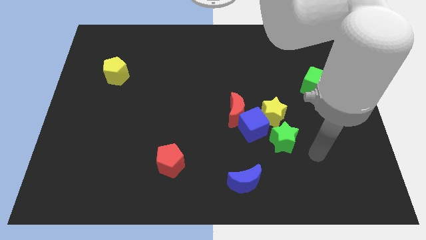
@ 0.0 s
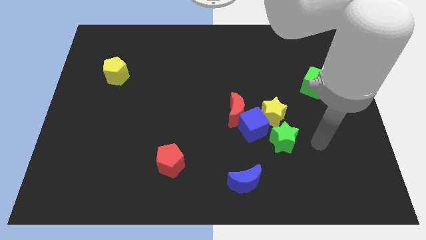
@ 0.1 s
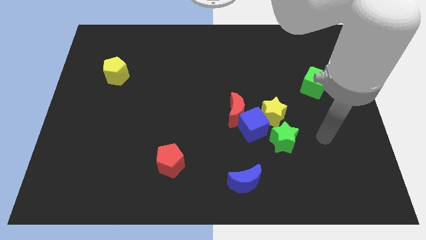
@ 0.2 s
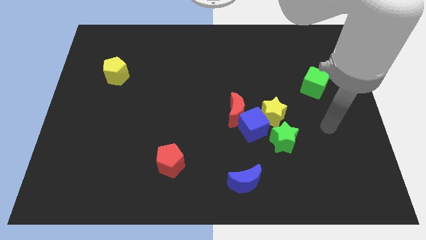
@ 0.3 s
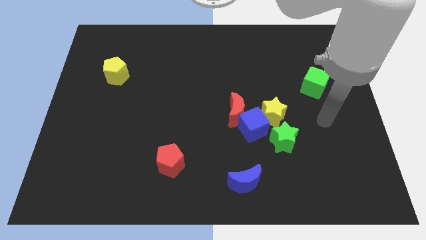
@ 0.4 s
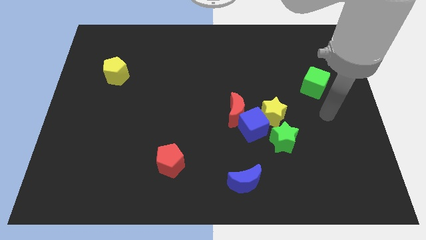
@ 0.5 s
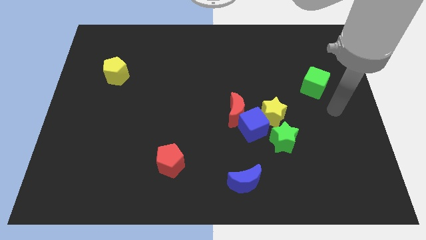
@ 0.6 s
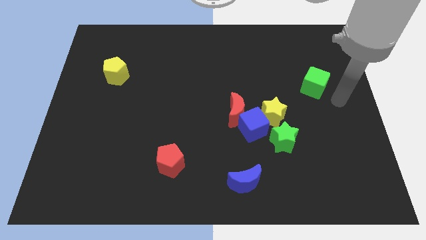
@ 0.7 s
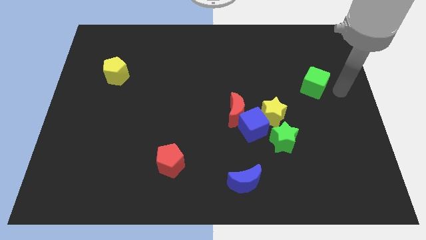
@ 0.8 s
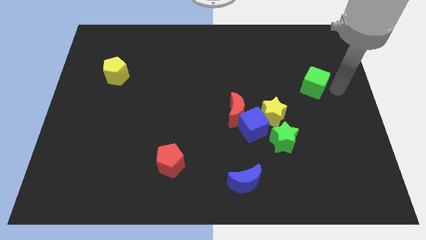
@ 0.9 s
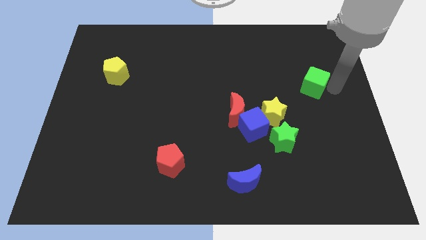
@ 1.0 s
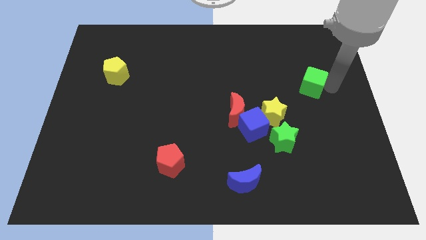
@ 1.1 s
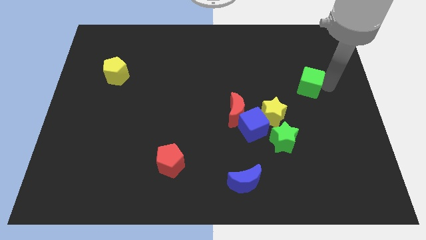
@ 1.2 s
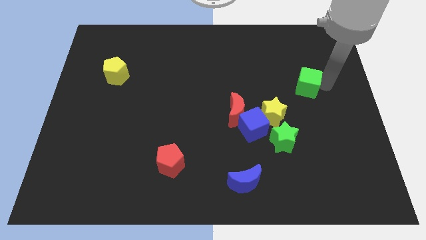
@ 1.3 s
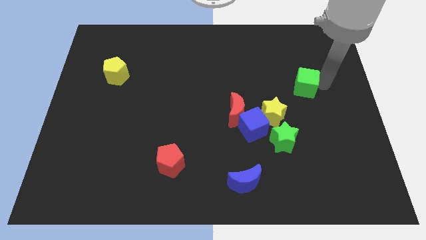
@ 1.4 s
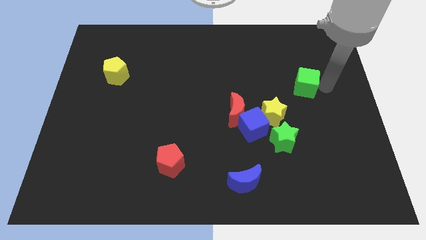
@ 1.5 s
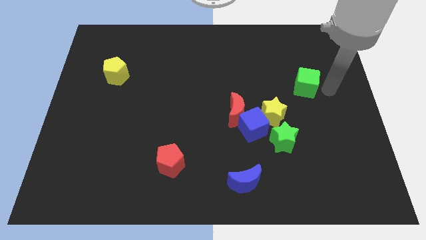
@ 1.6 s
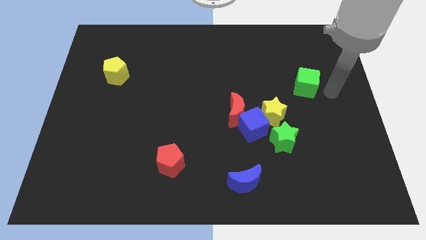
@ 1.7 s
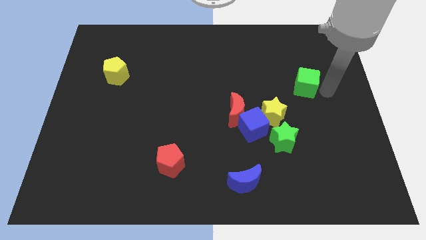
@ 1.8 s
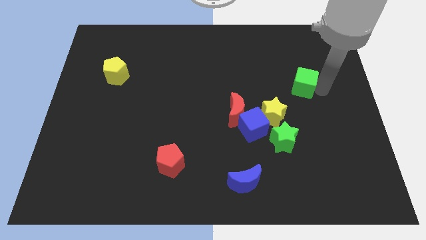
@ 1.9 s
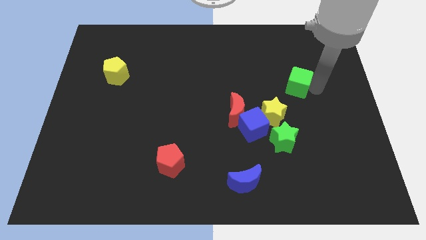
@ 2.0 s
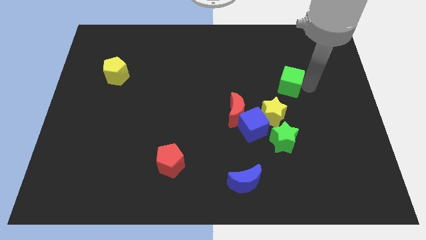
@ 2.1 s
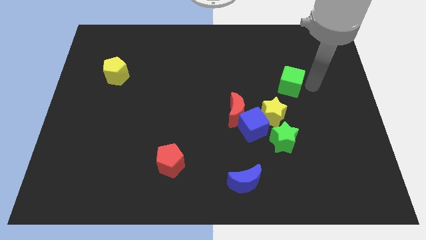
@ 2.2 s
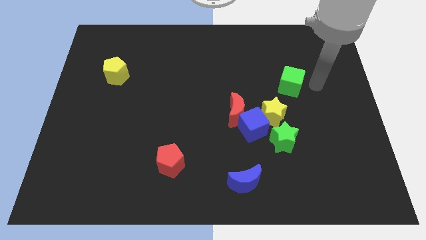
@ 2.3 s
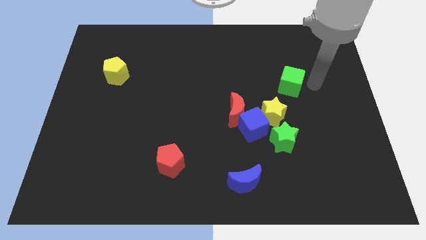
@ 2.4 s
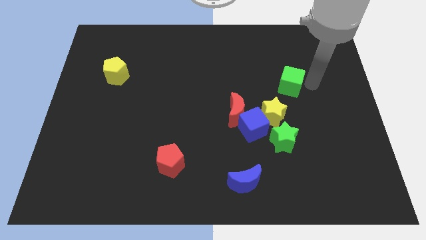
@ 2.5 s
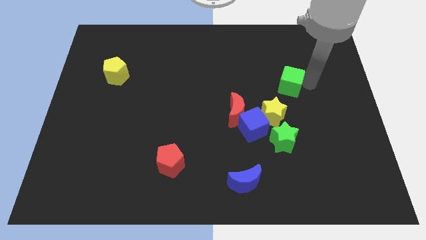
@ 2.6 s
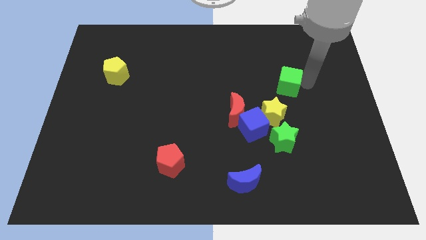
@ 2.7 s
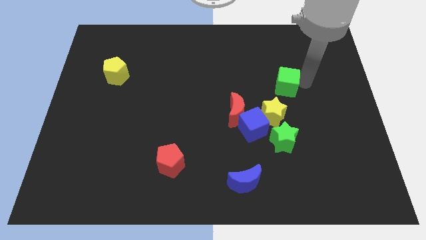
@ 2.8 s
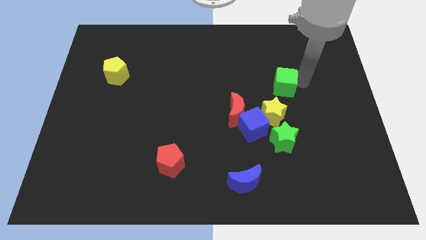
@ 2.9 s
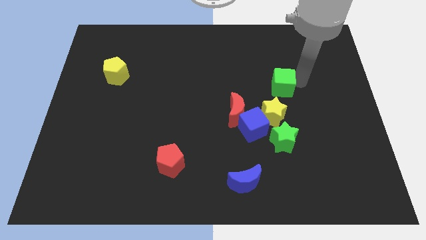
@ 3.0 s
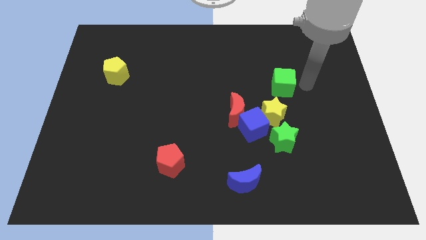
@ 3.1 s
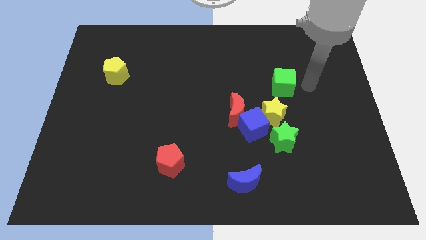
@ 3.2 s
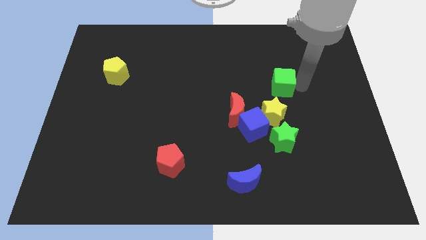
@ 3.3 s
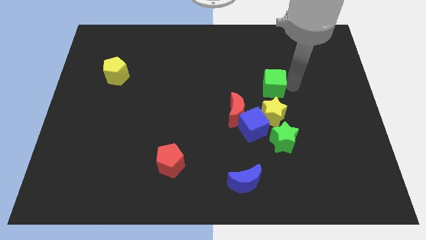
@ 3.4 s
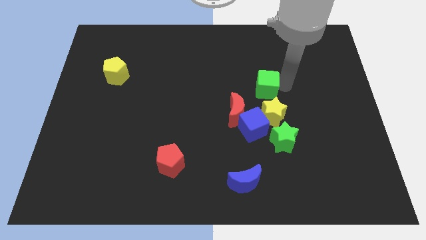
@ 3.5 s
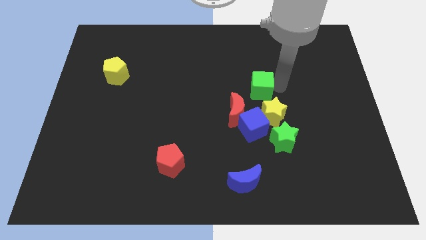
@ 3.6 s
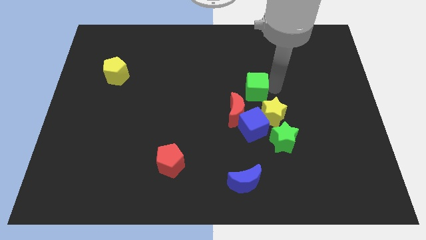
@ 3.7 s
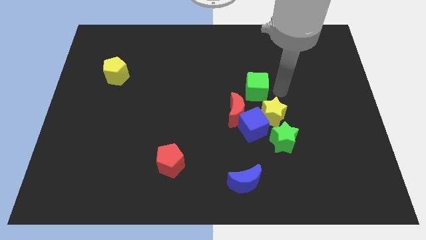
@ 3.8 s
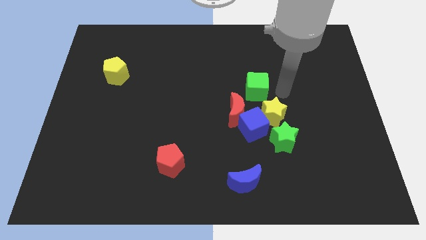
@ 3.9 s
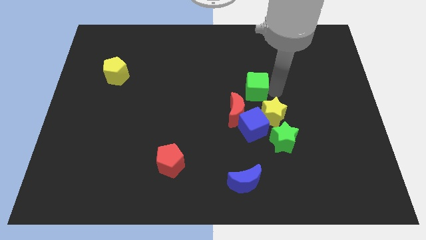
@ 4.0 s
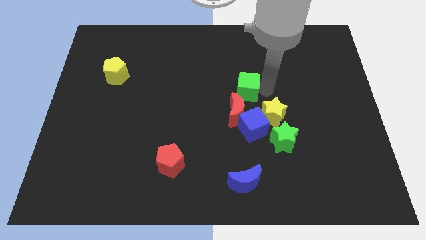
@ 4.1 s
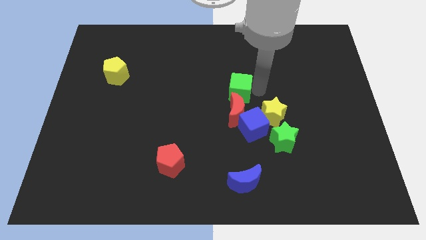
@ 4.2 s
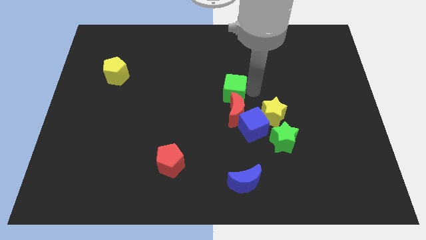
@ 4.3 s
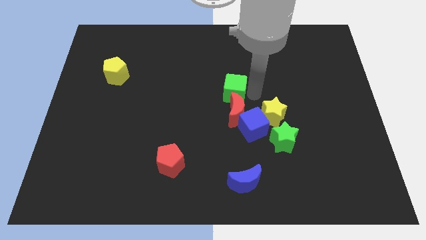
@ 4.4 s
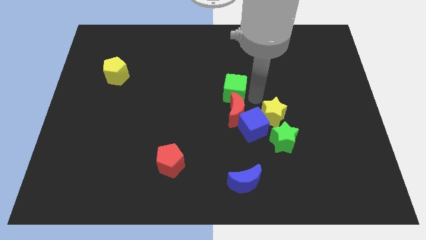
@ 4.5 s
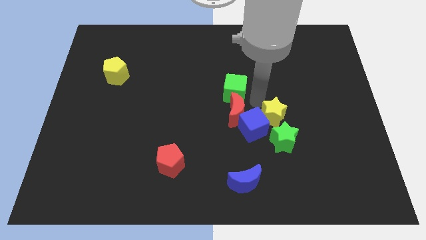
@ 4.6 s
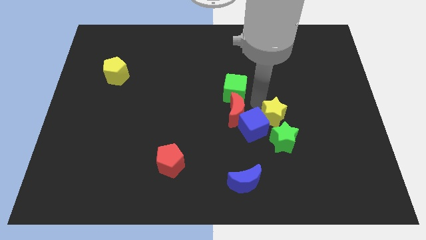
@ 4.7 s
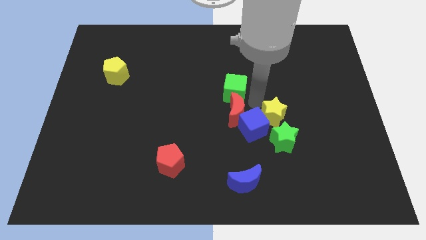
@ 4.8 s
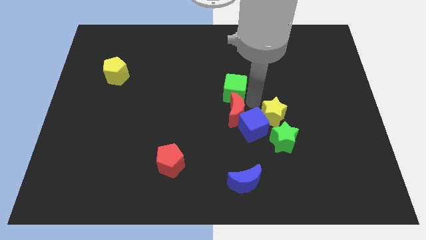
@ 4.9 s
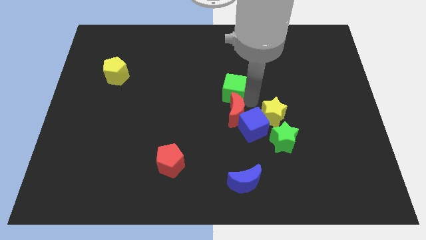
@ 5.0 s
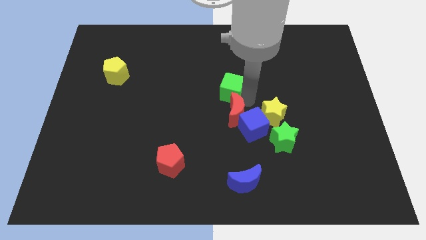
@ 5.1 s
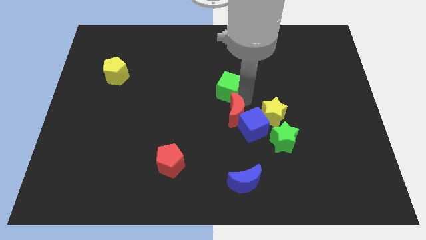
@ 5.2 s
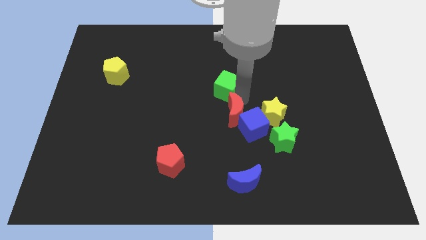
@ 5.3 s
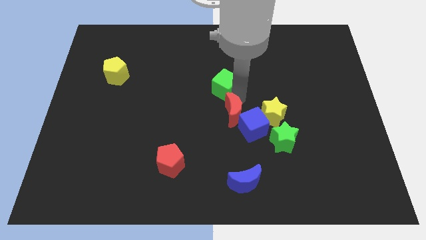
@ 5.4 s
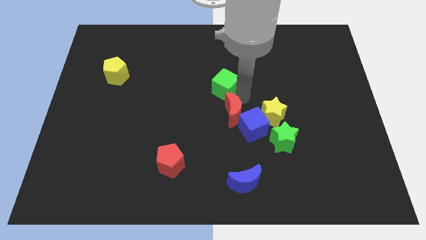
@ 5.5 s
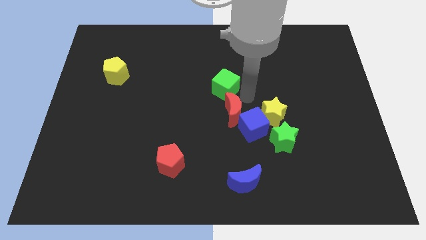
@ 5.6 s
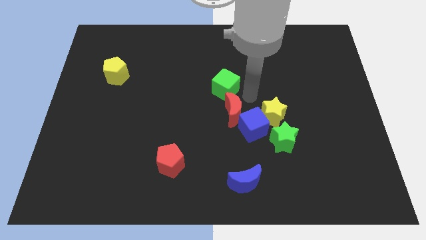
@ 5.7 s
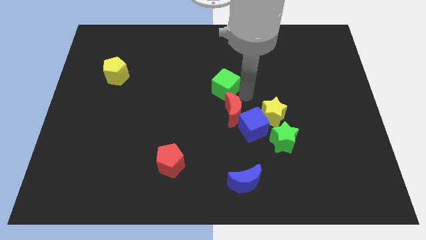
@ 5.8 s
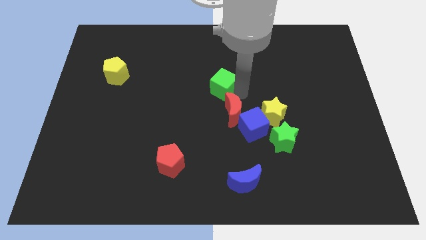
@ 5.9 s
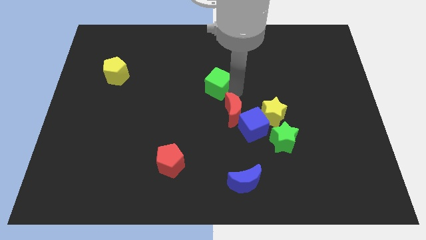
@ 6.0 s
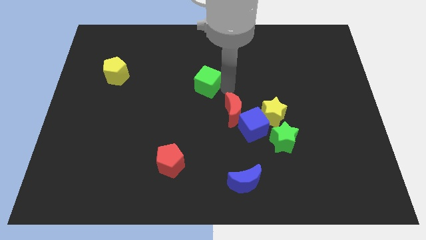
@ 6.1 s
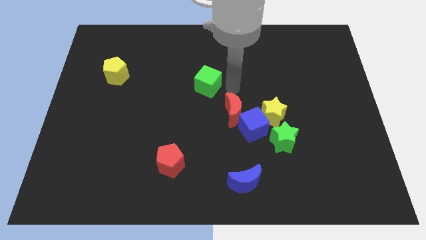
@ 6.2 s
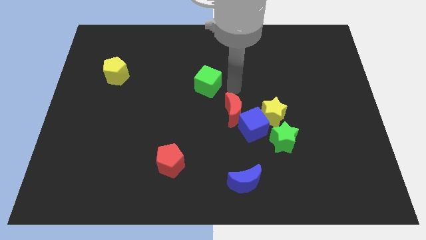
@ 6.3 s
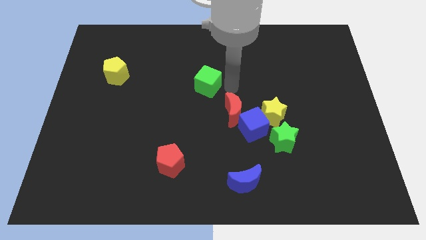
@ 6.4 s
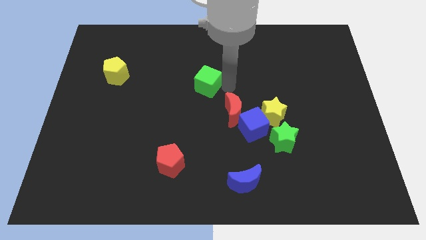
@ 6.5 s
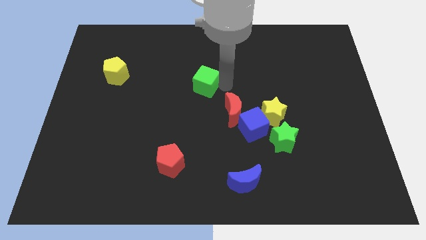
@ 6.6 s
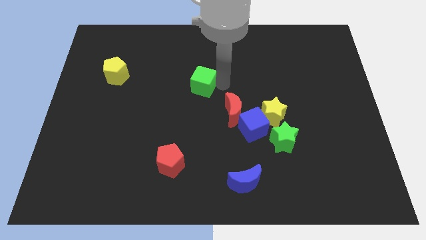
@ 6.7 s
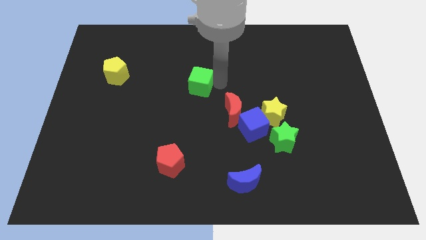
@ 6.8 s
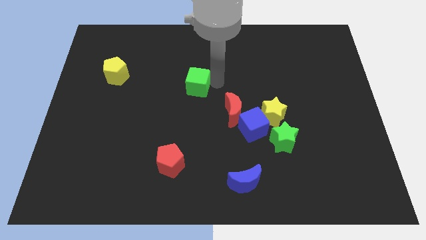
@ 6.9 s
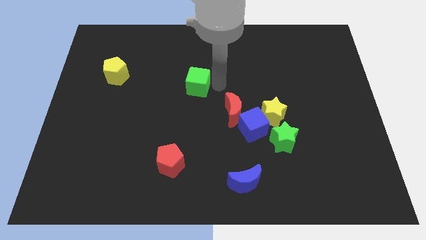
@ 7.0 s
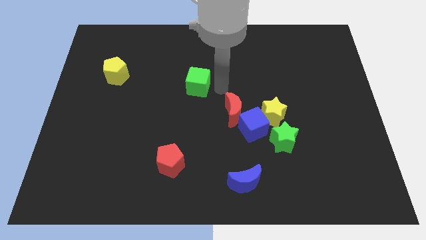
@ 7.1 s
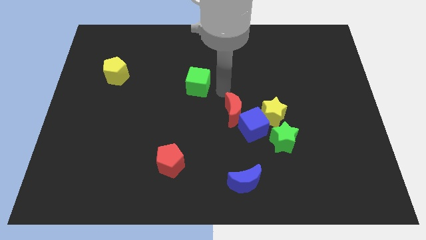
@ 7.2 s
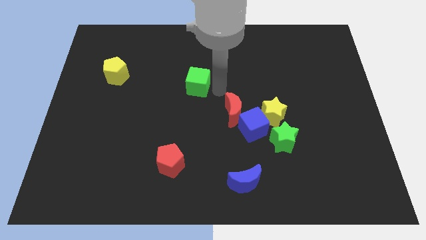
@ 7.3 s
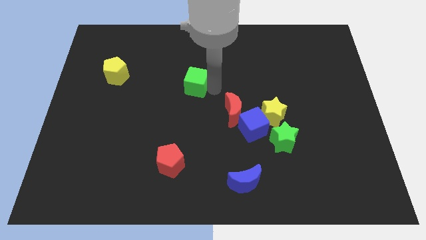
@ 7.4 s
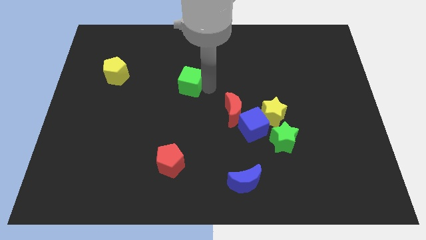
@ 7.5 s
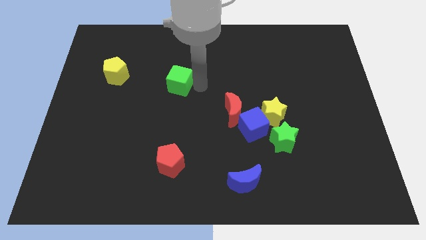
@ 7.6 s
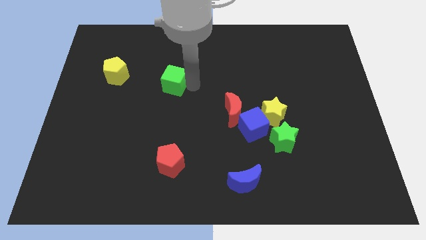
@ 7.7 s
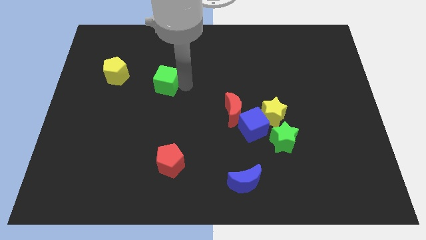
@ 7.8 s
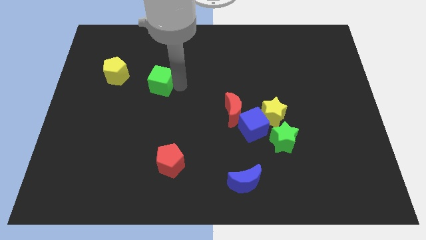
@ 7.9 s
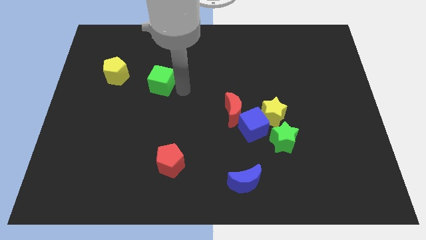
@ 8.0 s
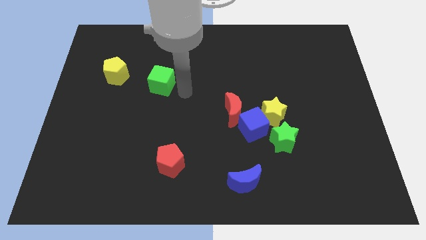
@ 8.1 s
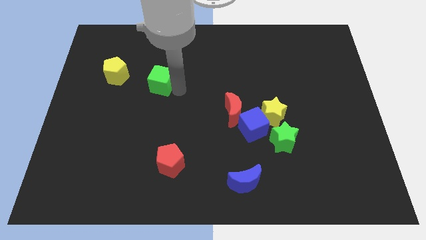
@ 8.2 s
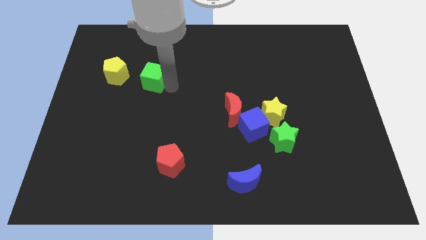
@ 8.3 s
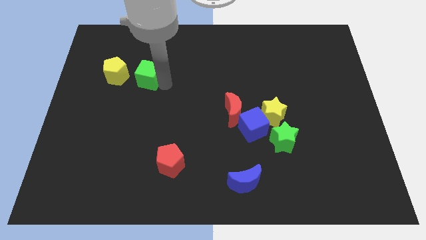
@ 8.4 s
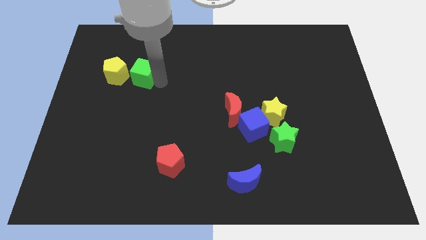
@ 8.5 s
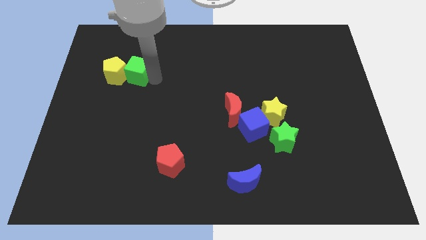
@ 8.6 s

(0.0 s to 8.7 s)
move the green cube next to the yellow pentagon
